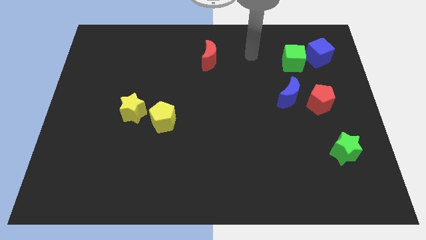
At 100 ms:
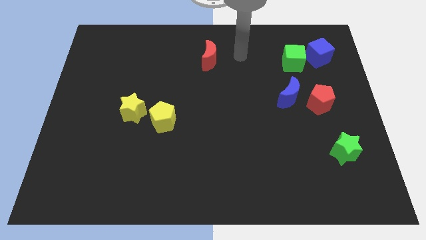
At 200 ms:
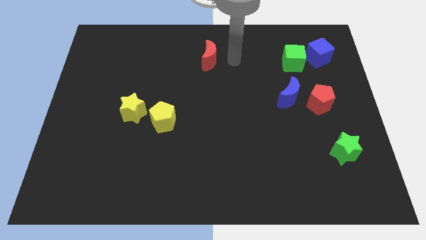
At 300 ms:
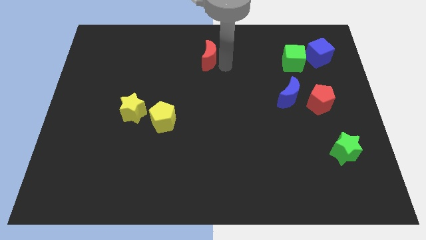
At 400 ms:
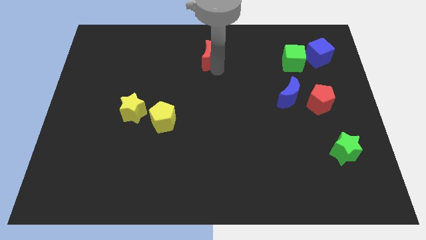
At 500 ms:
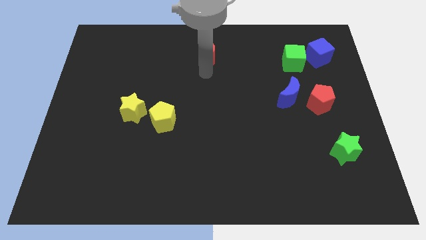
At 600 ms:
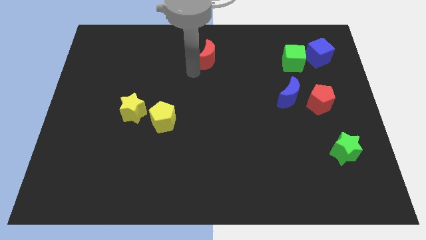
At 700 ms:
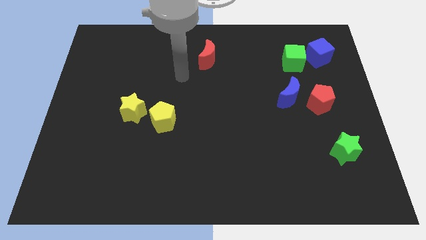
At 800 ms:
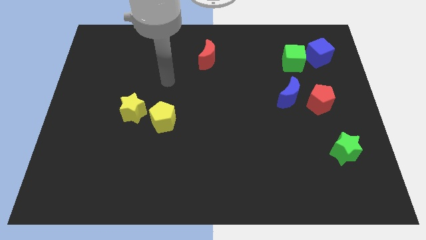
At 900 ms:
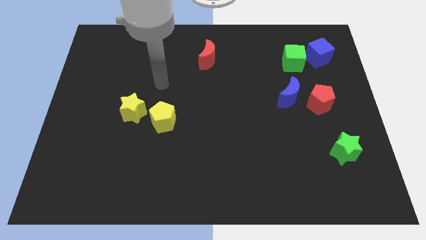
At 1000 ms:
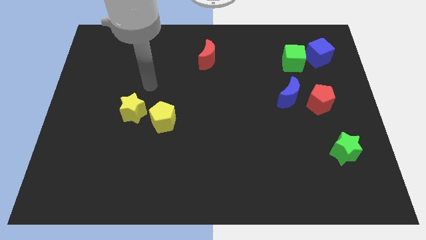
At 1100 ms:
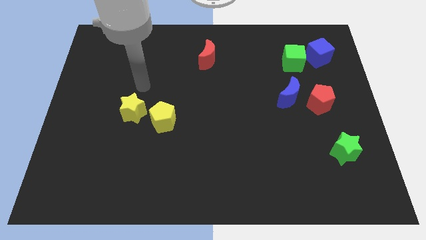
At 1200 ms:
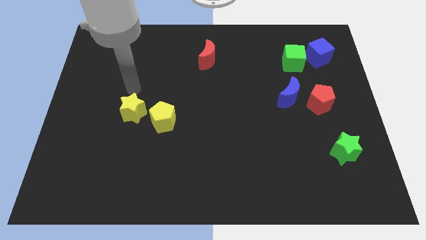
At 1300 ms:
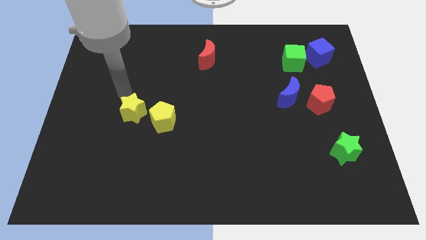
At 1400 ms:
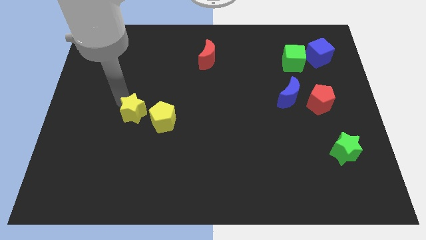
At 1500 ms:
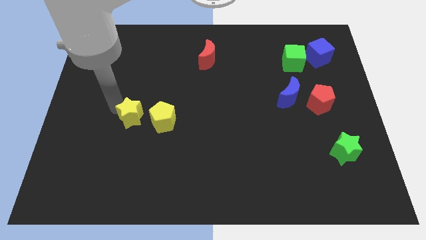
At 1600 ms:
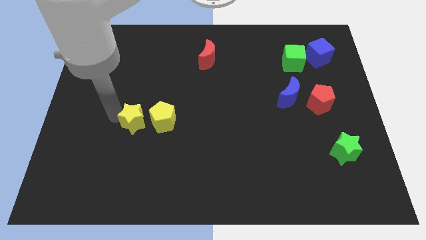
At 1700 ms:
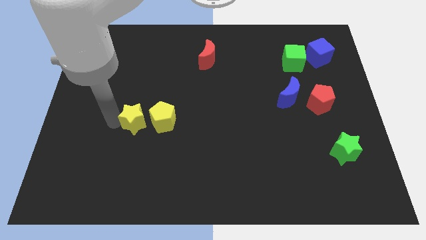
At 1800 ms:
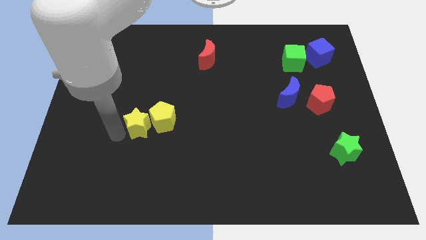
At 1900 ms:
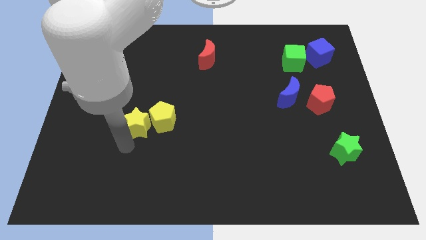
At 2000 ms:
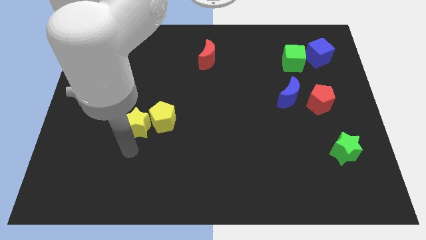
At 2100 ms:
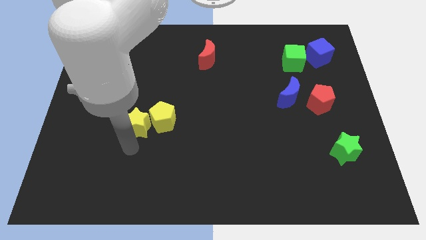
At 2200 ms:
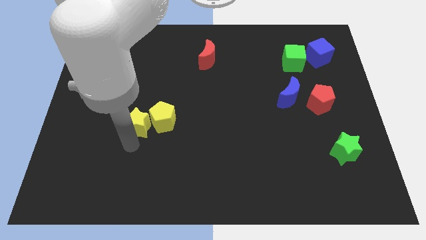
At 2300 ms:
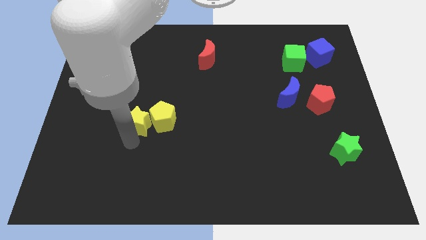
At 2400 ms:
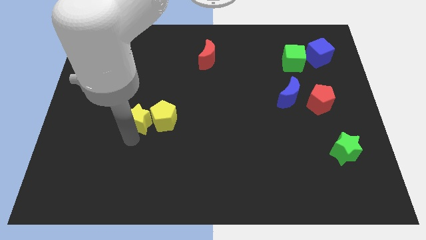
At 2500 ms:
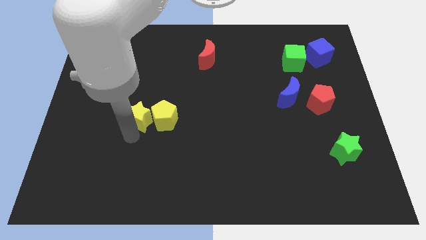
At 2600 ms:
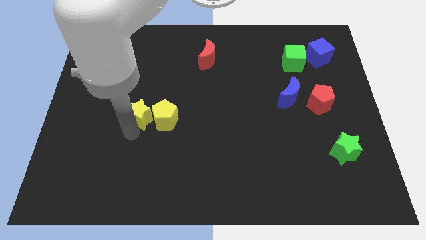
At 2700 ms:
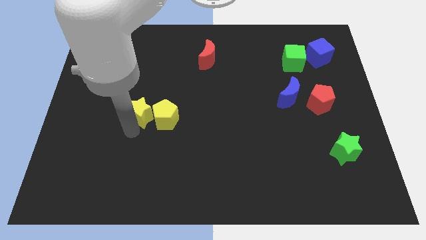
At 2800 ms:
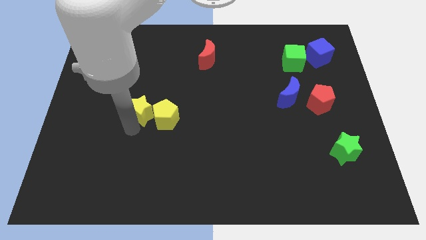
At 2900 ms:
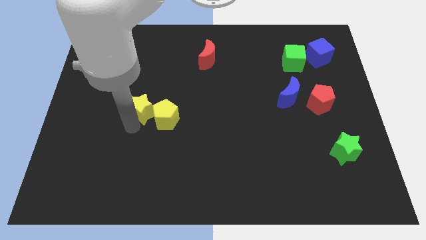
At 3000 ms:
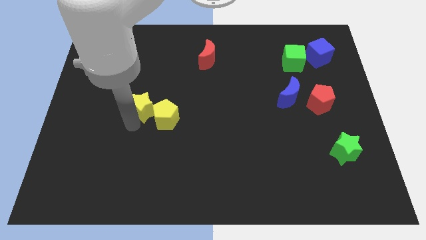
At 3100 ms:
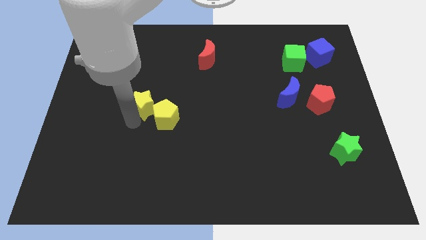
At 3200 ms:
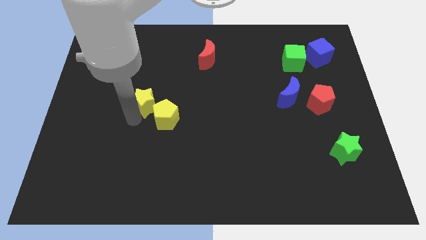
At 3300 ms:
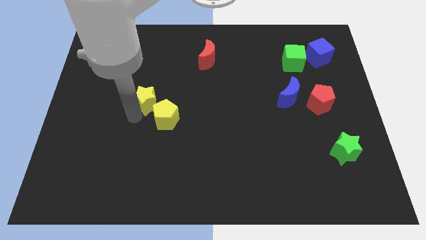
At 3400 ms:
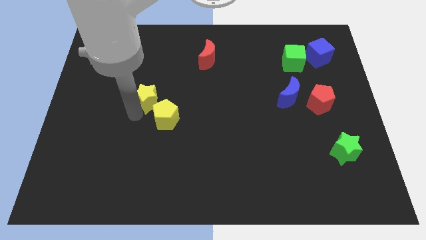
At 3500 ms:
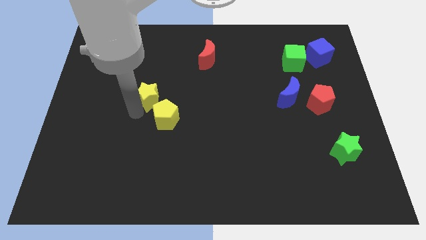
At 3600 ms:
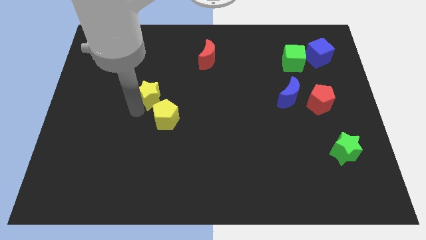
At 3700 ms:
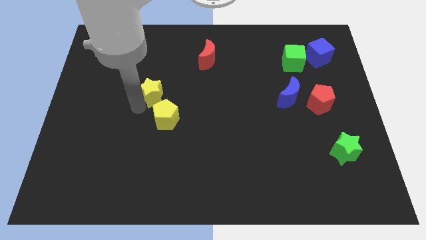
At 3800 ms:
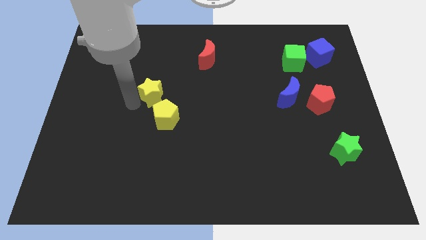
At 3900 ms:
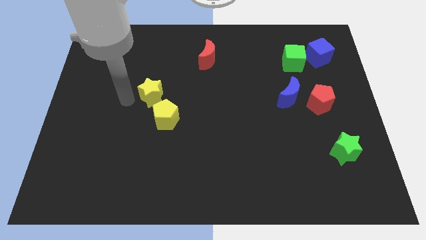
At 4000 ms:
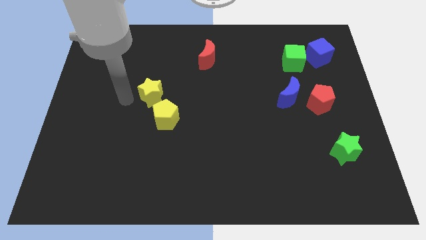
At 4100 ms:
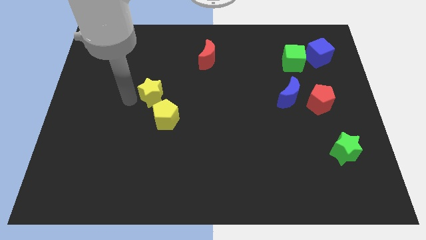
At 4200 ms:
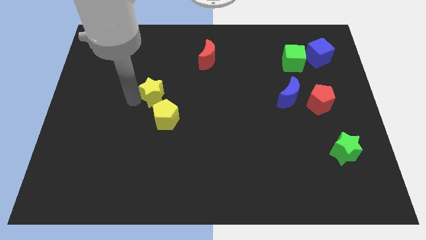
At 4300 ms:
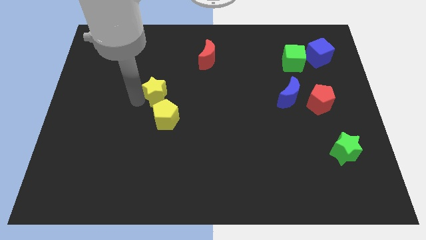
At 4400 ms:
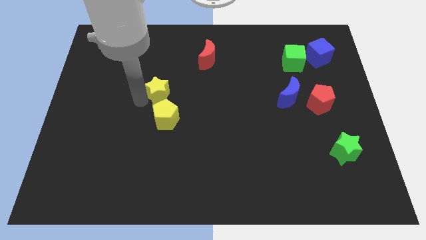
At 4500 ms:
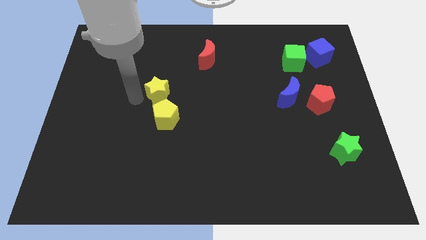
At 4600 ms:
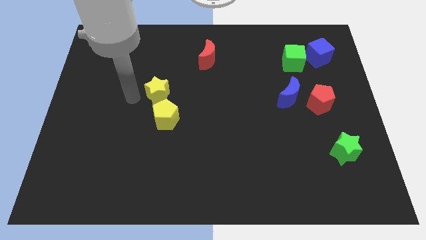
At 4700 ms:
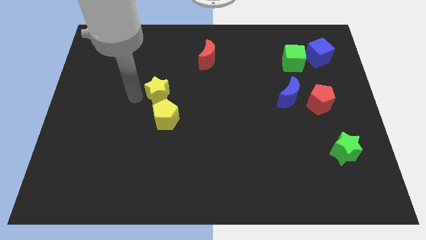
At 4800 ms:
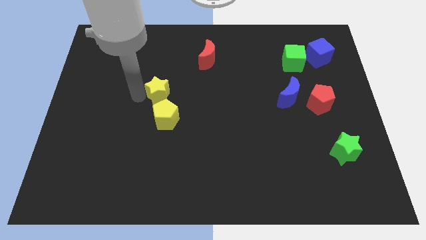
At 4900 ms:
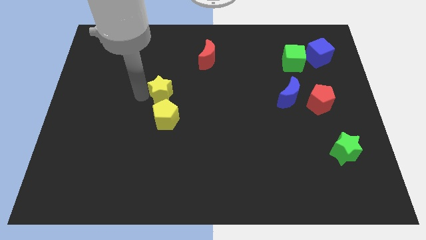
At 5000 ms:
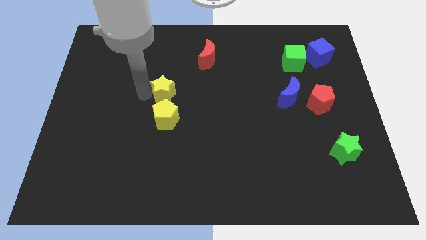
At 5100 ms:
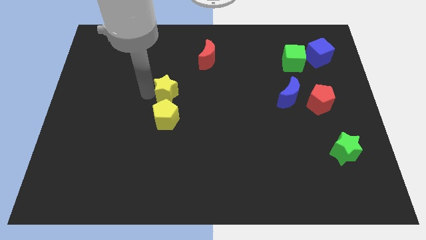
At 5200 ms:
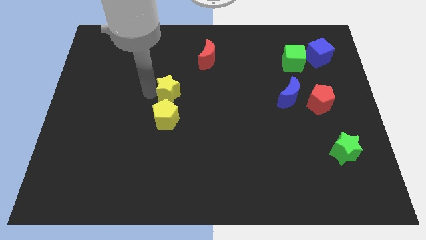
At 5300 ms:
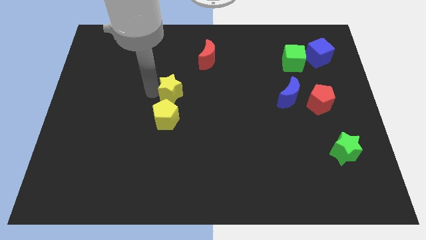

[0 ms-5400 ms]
move the yellow star to the right slightly

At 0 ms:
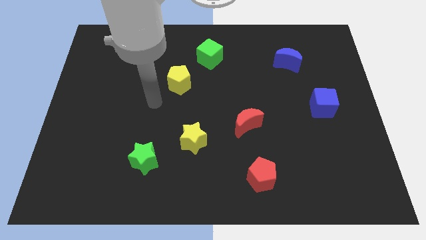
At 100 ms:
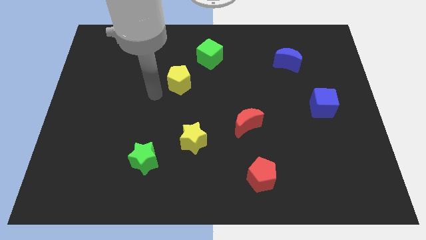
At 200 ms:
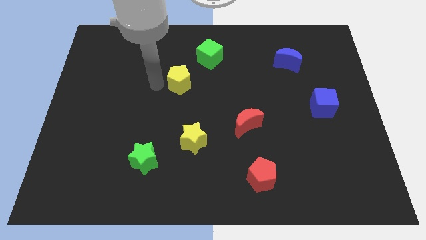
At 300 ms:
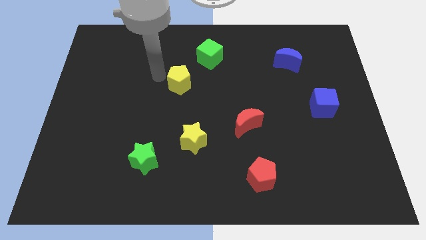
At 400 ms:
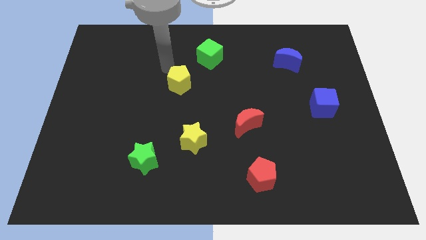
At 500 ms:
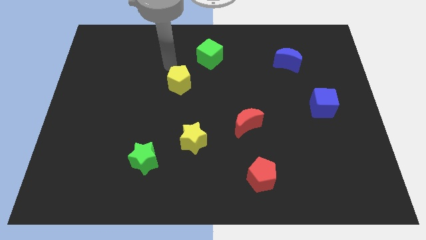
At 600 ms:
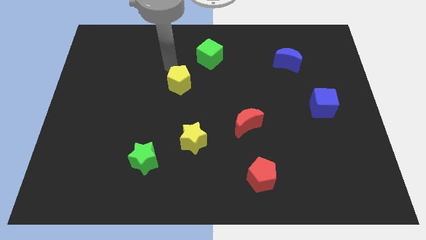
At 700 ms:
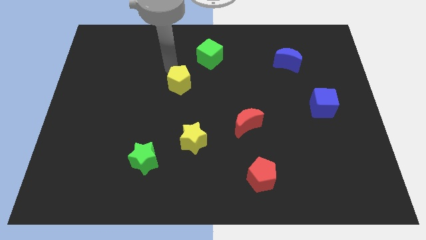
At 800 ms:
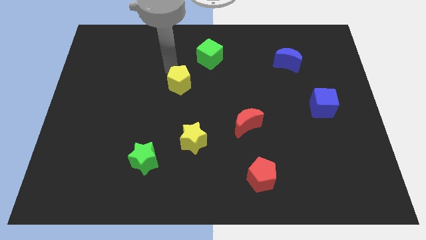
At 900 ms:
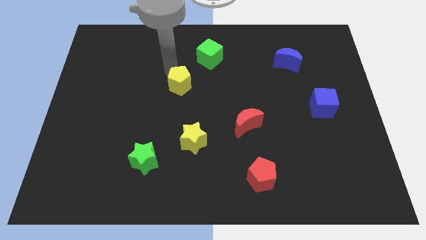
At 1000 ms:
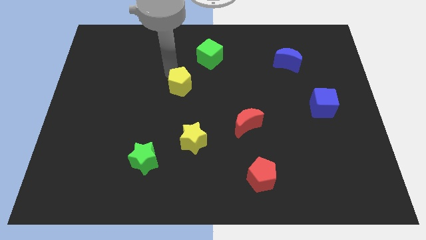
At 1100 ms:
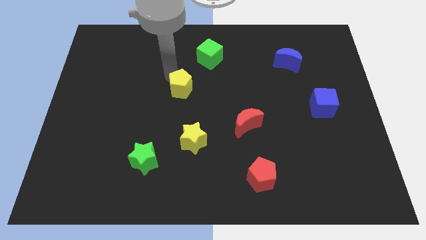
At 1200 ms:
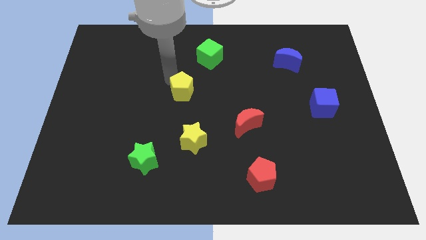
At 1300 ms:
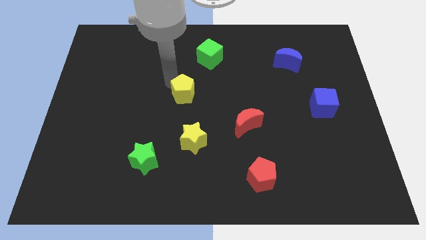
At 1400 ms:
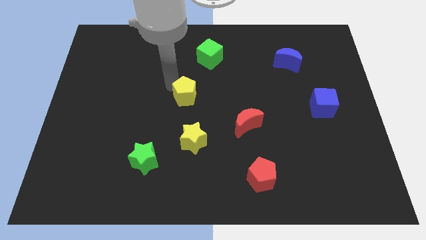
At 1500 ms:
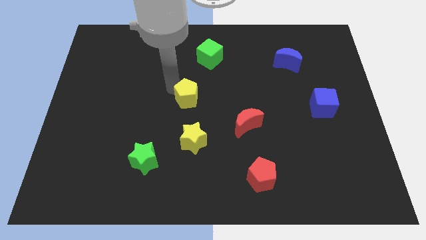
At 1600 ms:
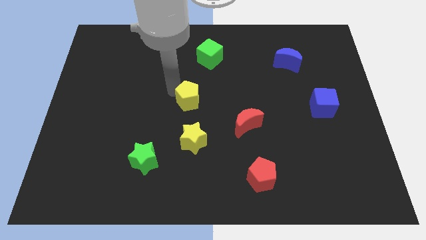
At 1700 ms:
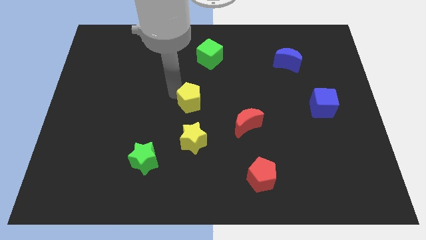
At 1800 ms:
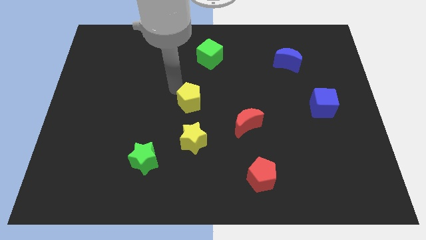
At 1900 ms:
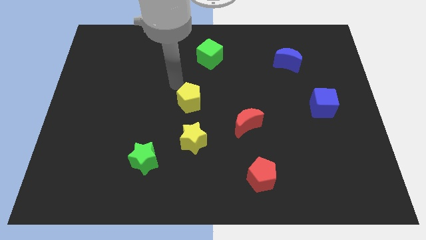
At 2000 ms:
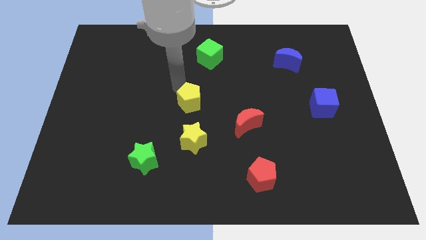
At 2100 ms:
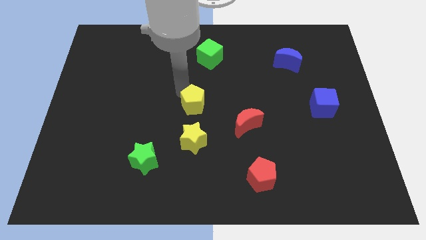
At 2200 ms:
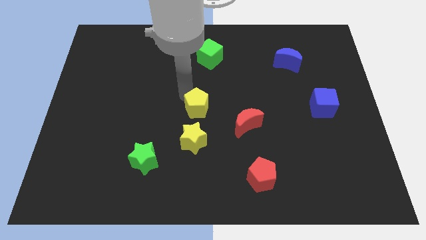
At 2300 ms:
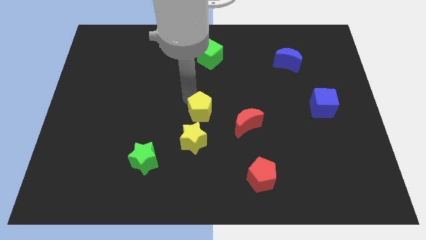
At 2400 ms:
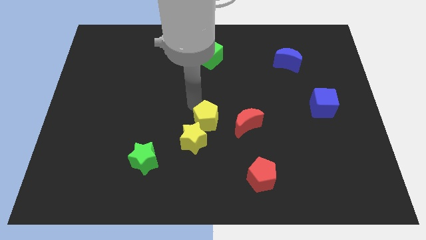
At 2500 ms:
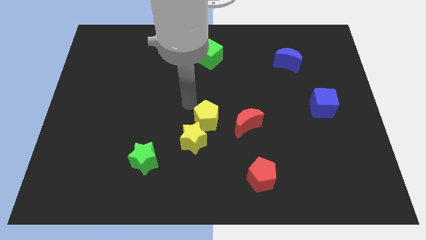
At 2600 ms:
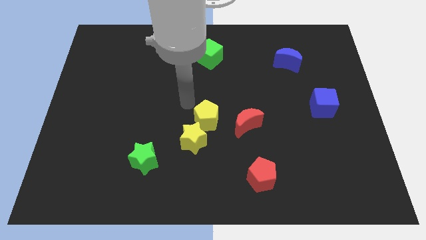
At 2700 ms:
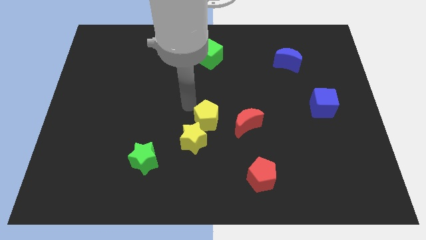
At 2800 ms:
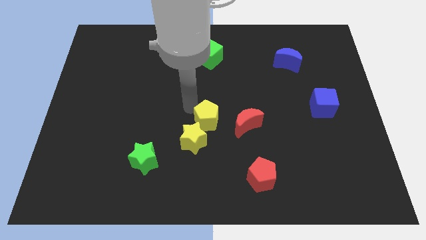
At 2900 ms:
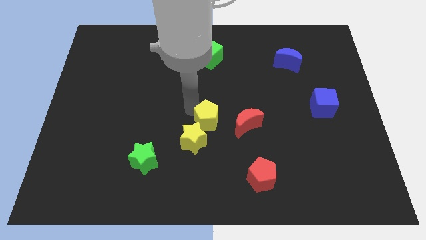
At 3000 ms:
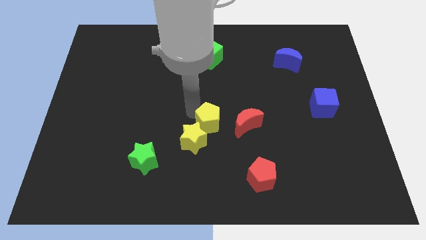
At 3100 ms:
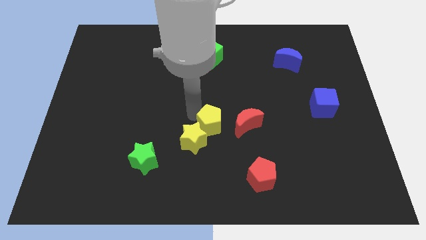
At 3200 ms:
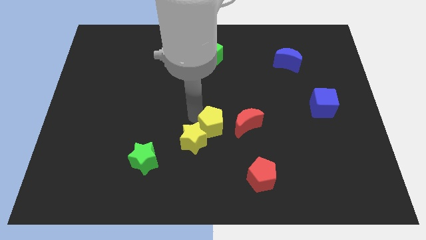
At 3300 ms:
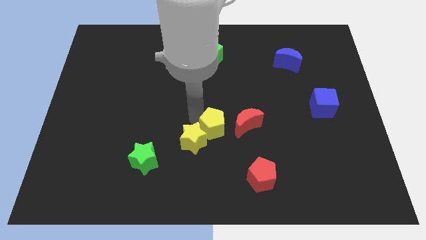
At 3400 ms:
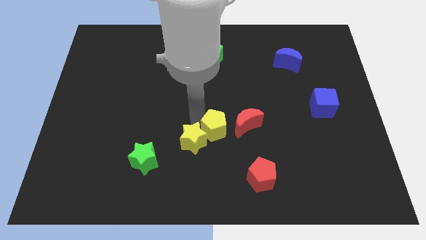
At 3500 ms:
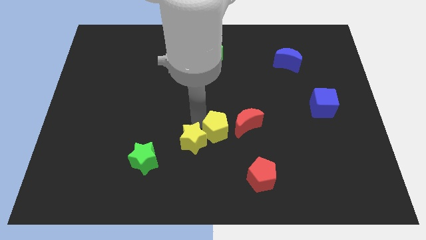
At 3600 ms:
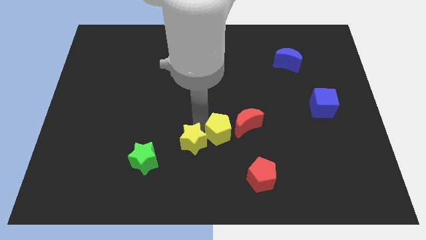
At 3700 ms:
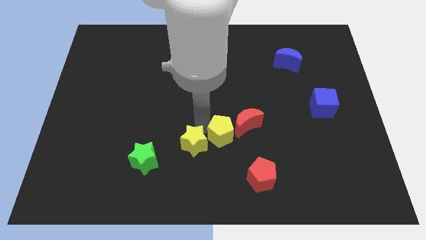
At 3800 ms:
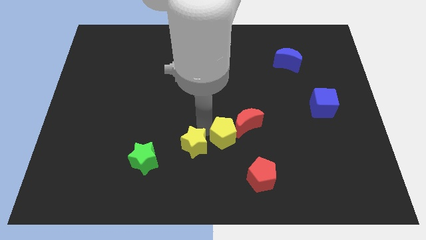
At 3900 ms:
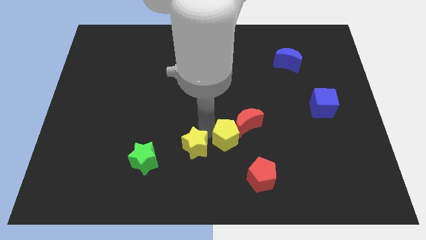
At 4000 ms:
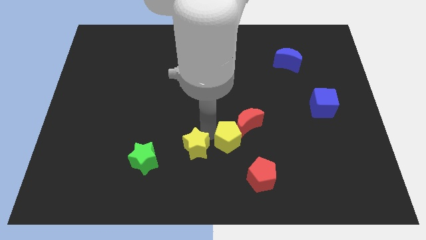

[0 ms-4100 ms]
move the yellow pentagon downwards and right
